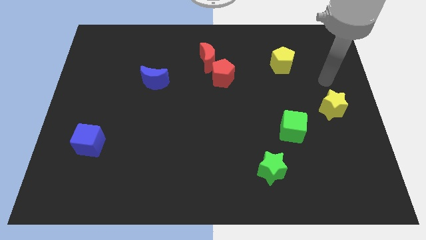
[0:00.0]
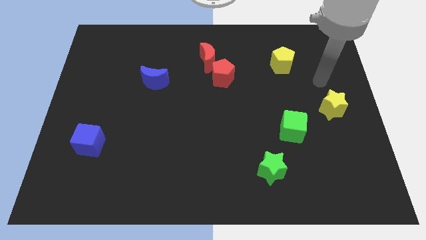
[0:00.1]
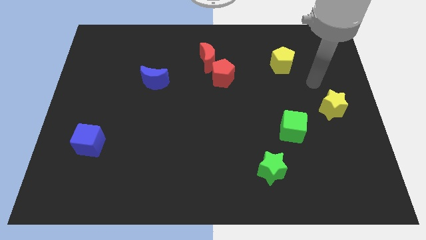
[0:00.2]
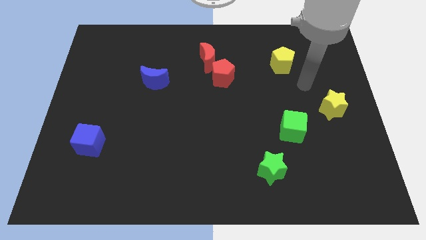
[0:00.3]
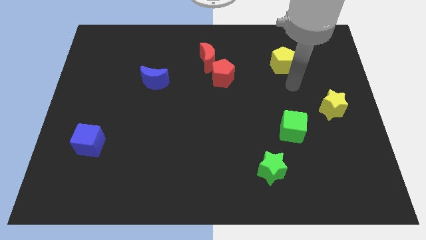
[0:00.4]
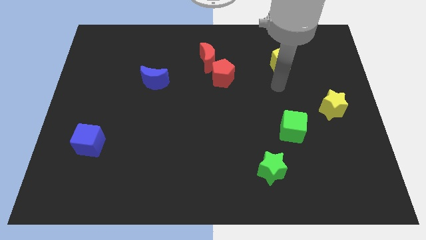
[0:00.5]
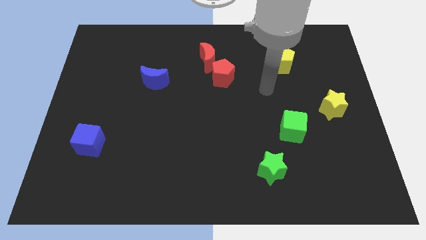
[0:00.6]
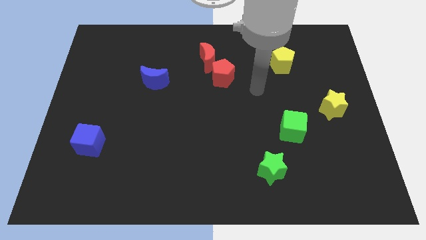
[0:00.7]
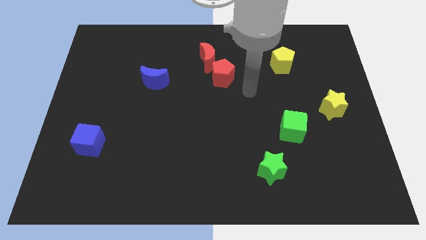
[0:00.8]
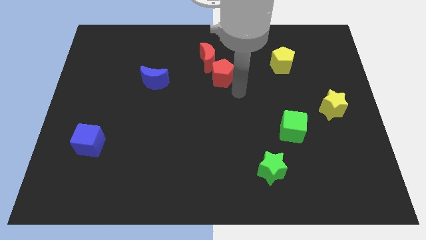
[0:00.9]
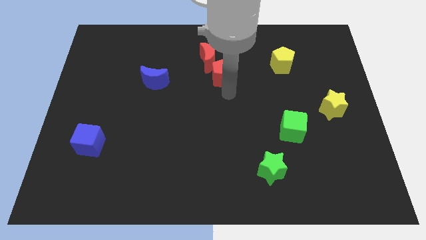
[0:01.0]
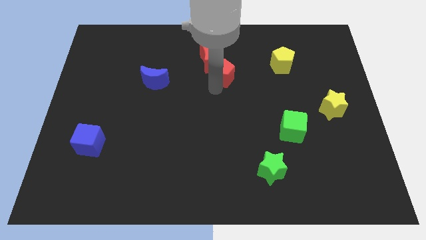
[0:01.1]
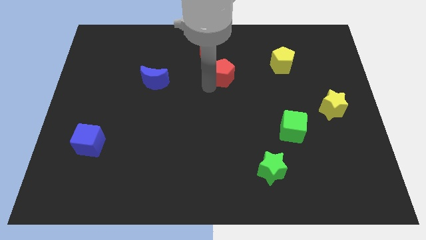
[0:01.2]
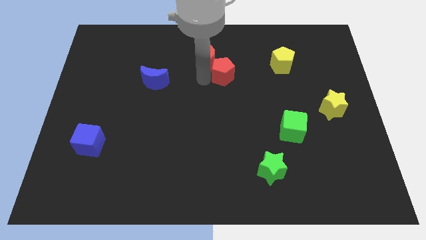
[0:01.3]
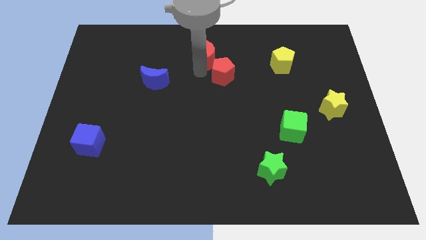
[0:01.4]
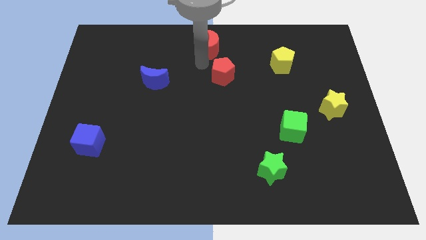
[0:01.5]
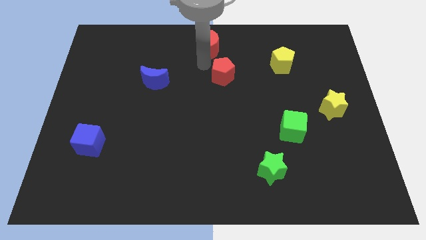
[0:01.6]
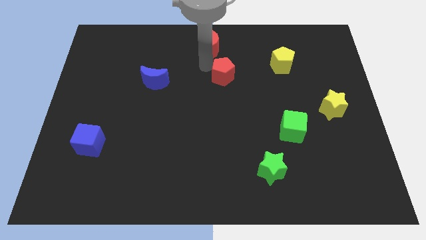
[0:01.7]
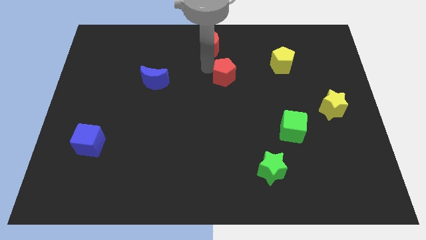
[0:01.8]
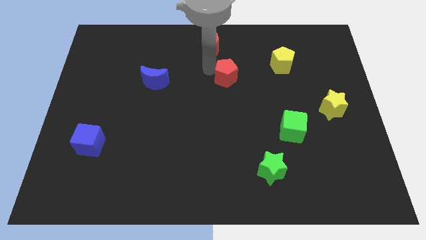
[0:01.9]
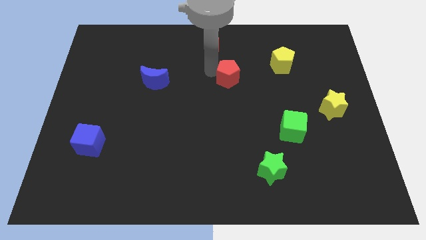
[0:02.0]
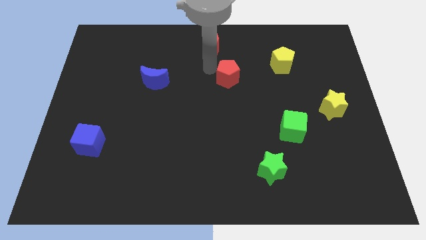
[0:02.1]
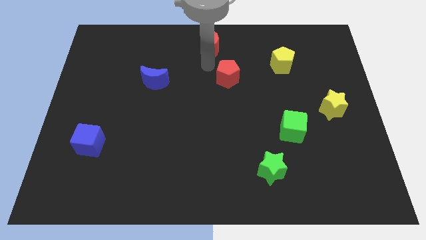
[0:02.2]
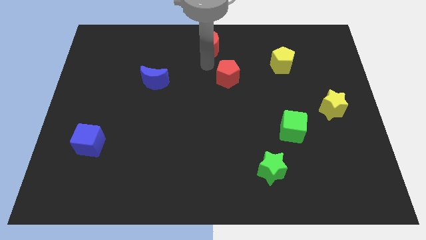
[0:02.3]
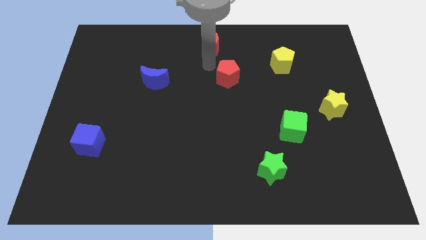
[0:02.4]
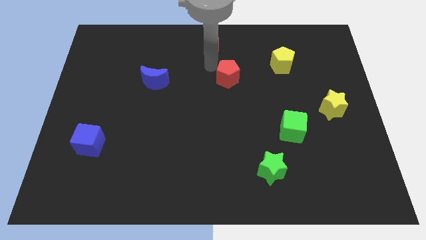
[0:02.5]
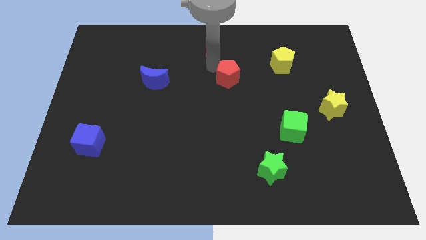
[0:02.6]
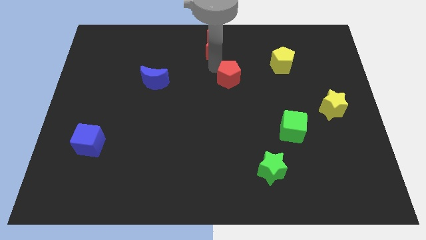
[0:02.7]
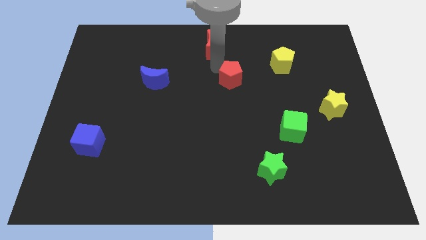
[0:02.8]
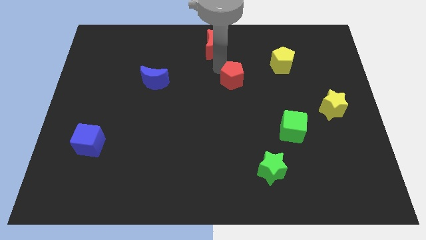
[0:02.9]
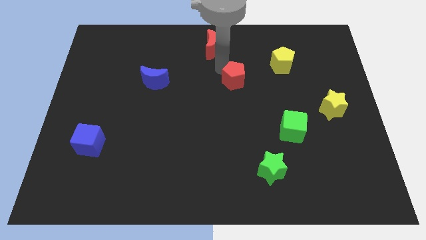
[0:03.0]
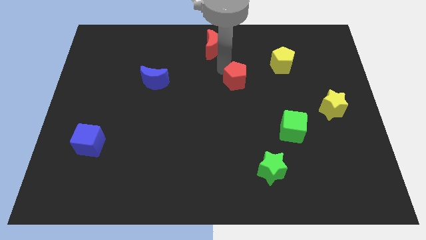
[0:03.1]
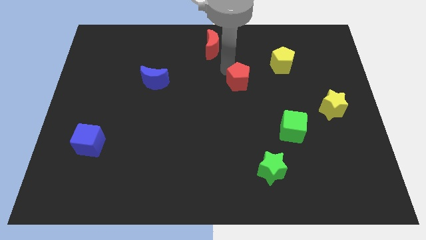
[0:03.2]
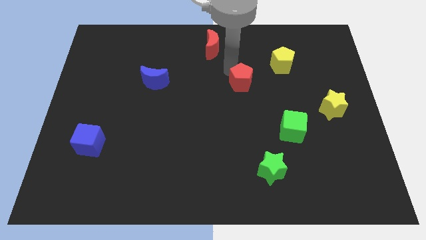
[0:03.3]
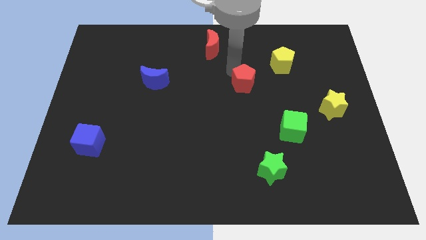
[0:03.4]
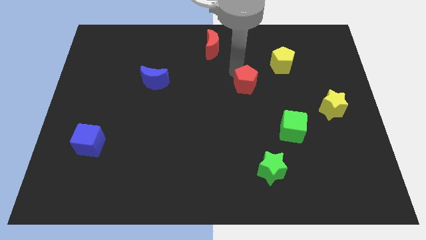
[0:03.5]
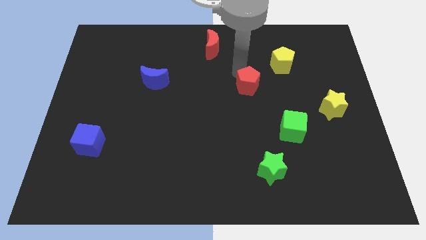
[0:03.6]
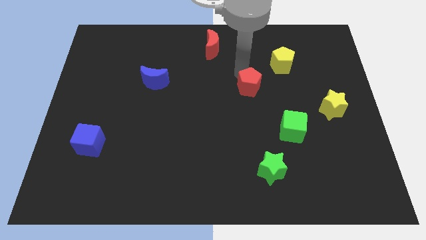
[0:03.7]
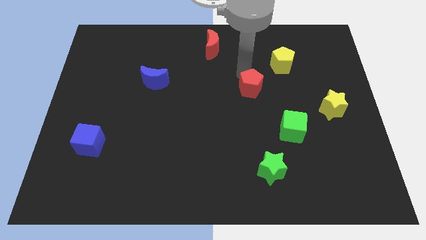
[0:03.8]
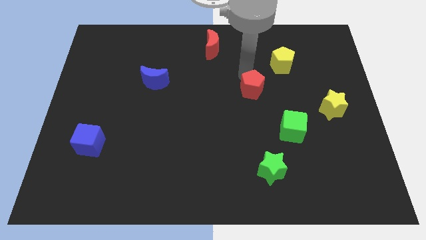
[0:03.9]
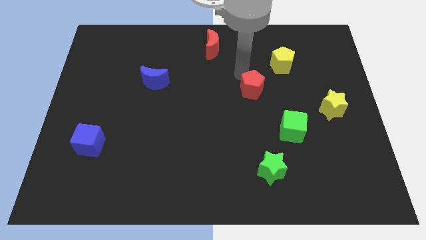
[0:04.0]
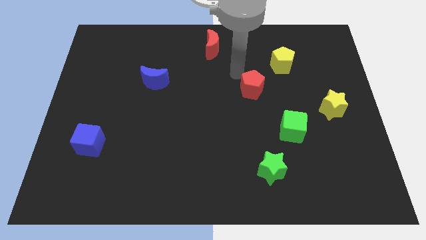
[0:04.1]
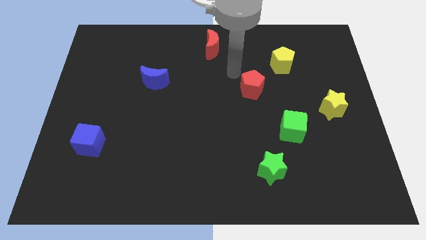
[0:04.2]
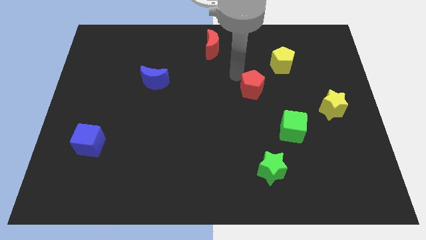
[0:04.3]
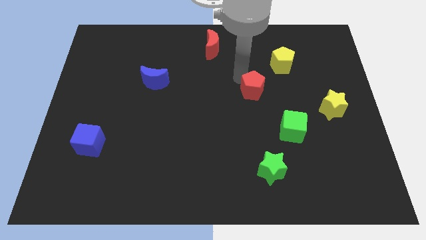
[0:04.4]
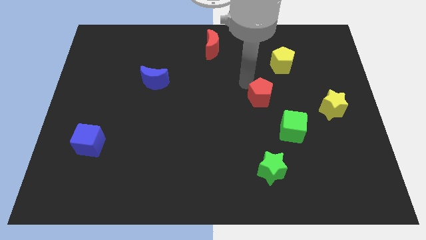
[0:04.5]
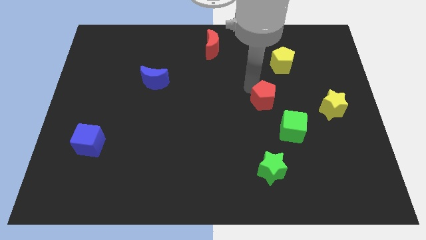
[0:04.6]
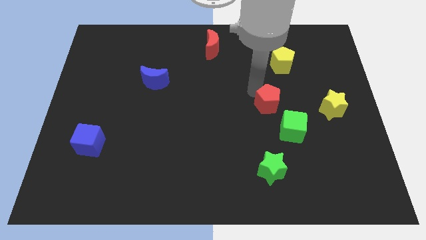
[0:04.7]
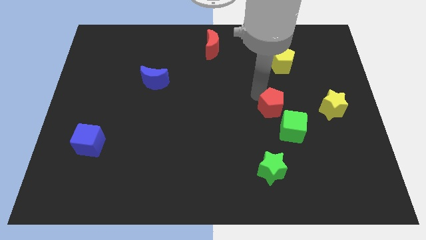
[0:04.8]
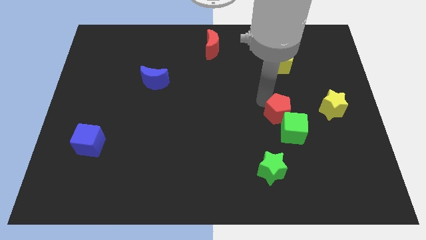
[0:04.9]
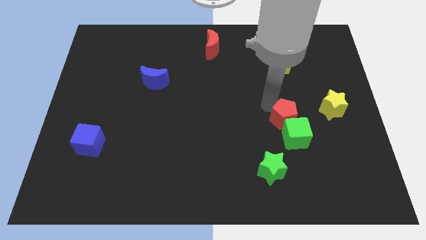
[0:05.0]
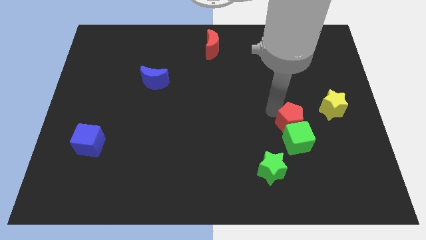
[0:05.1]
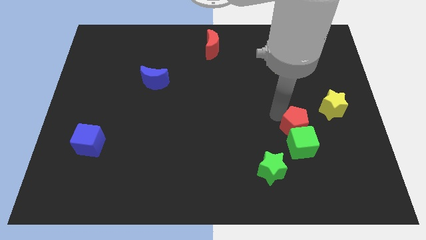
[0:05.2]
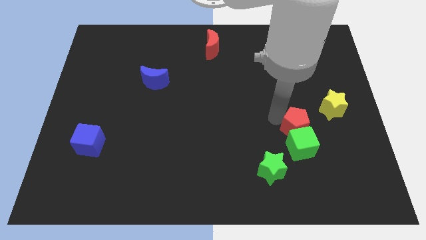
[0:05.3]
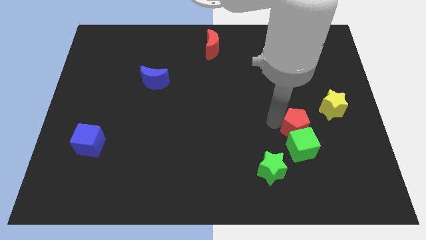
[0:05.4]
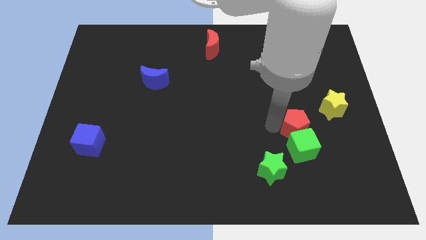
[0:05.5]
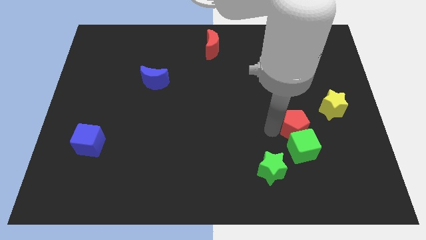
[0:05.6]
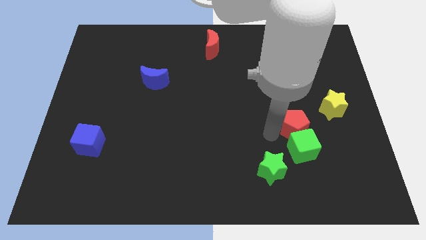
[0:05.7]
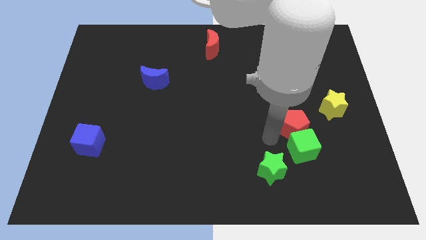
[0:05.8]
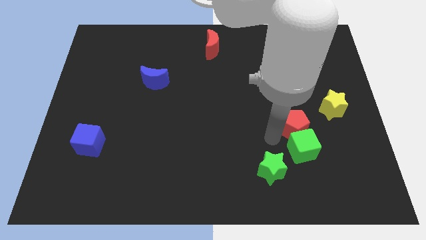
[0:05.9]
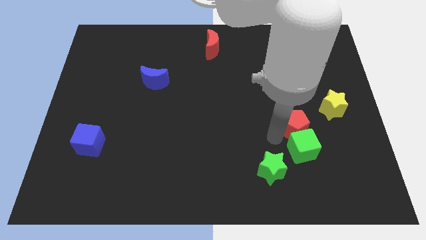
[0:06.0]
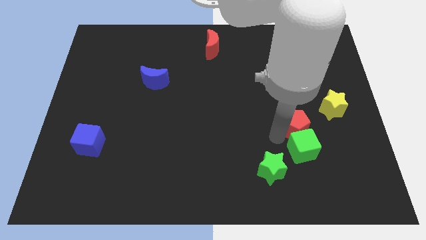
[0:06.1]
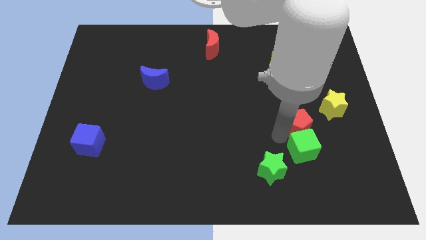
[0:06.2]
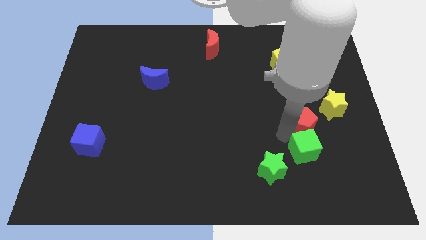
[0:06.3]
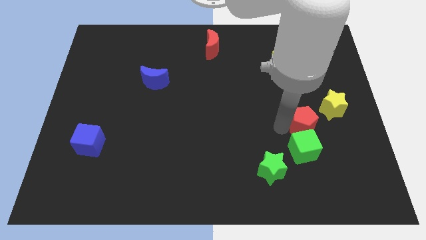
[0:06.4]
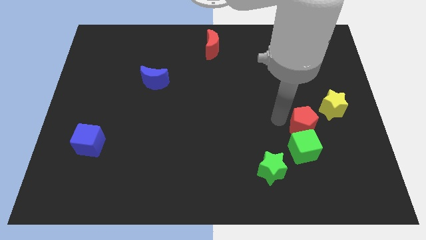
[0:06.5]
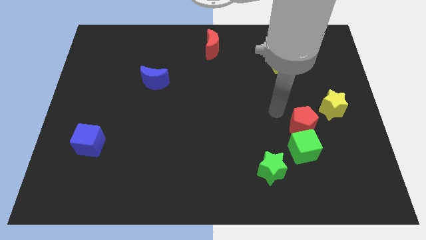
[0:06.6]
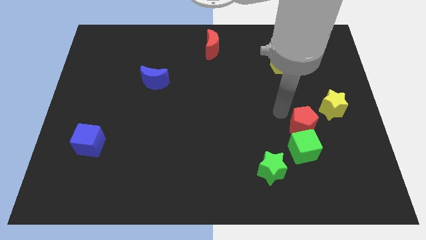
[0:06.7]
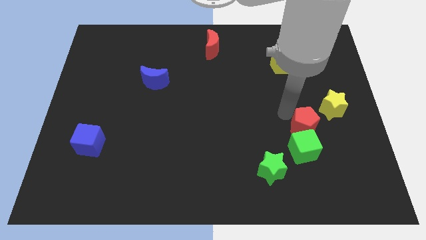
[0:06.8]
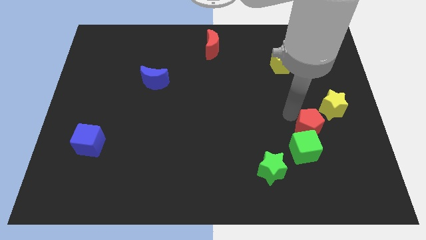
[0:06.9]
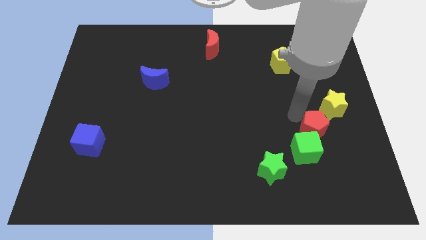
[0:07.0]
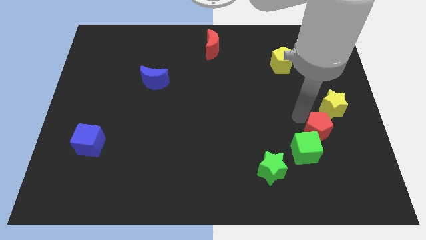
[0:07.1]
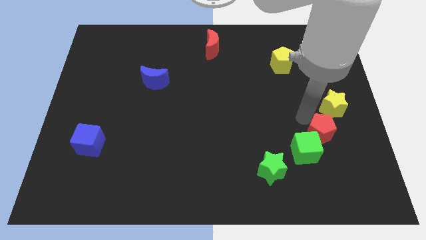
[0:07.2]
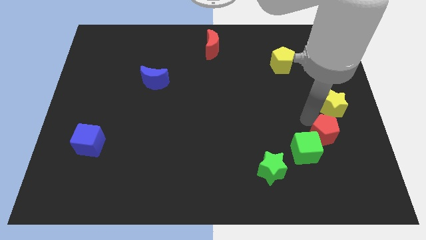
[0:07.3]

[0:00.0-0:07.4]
move the red pentagon to the right side of the green cube
